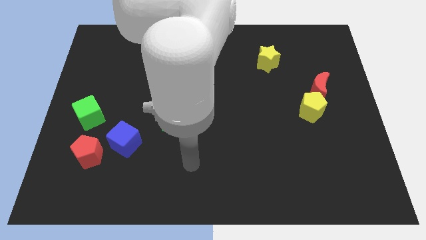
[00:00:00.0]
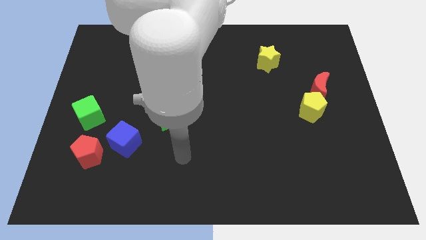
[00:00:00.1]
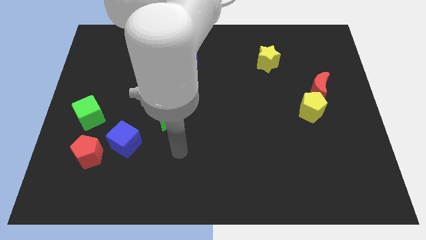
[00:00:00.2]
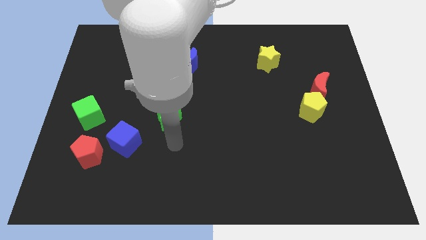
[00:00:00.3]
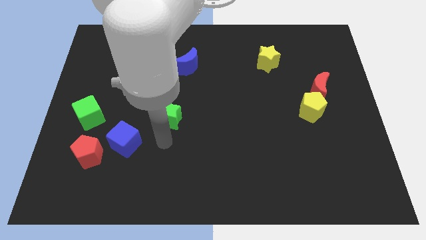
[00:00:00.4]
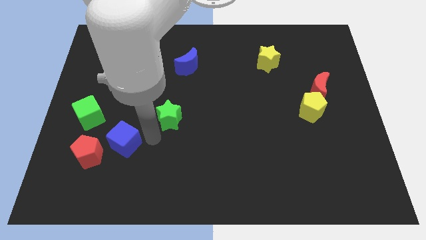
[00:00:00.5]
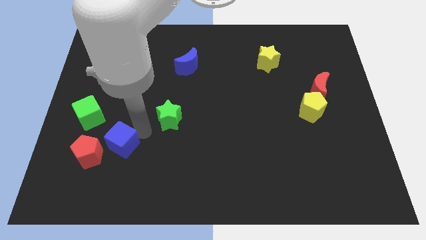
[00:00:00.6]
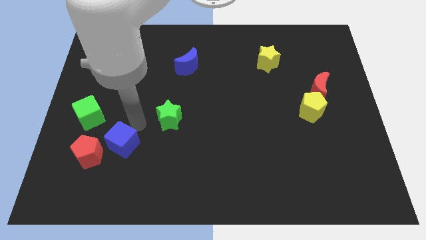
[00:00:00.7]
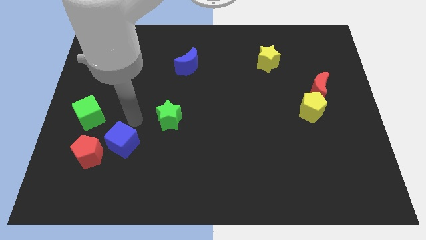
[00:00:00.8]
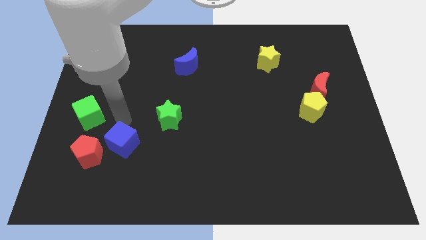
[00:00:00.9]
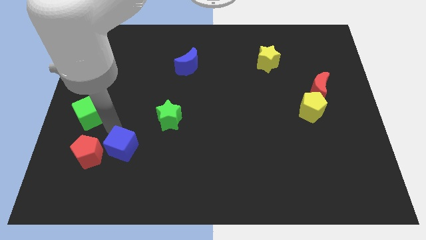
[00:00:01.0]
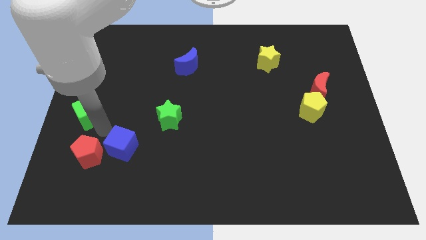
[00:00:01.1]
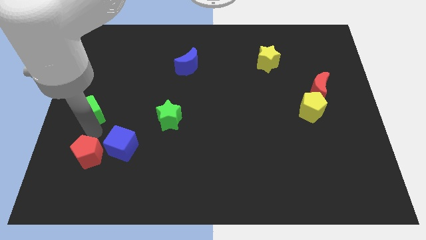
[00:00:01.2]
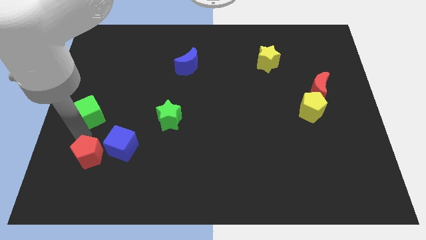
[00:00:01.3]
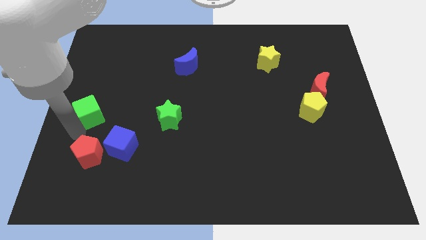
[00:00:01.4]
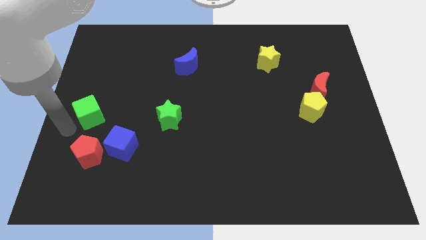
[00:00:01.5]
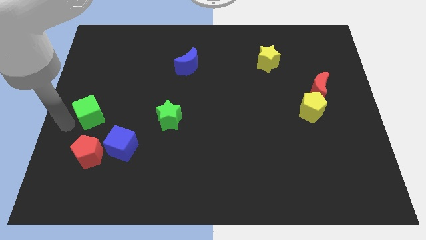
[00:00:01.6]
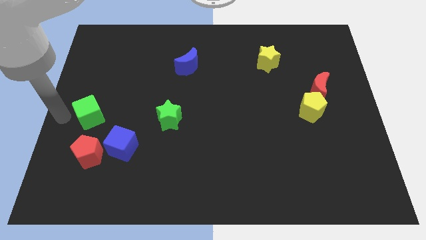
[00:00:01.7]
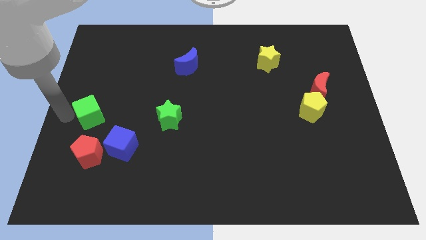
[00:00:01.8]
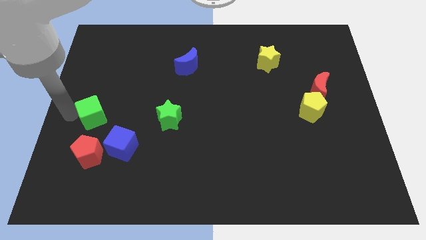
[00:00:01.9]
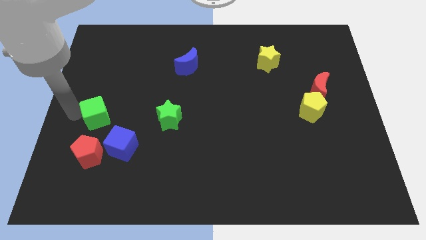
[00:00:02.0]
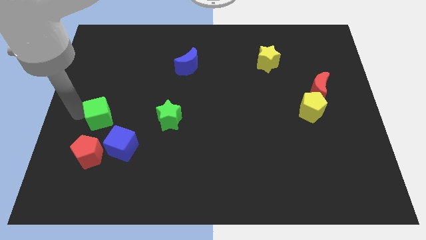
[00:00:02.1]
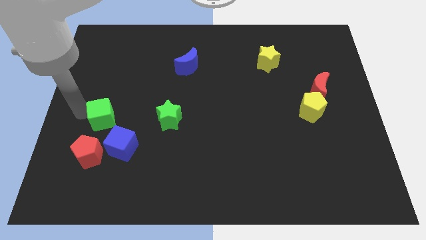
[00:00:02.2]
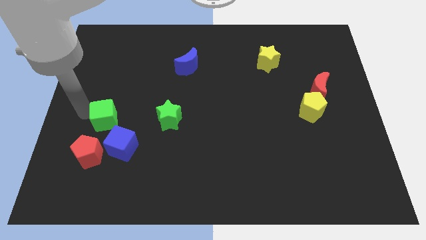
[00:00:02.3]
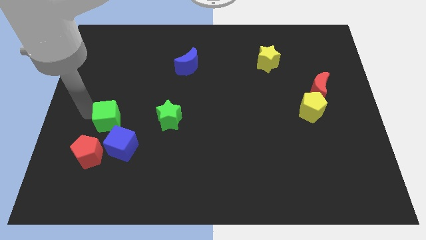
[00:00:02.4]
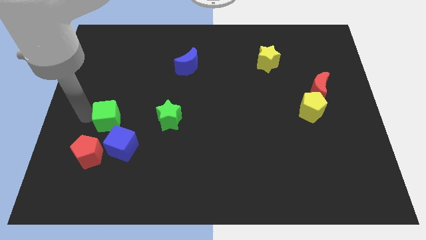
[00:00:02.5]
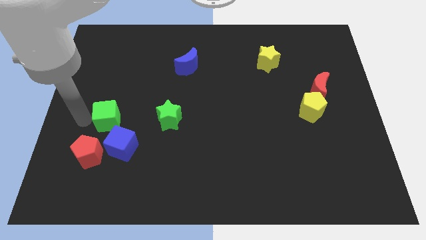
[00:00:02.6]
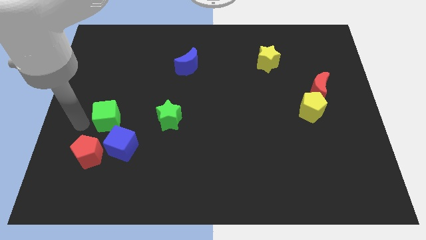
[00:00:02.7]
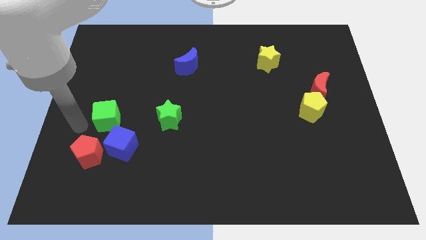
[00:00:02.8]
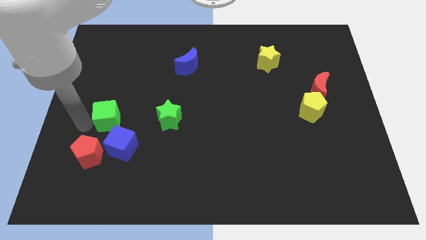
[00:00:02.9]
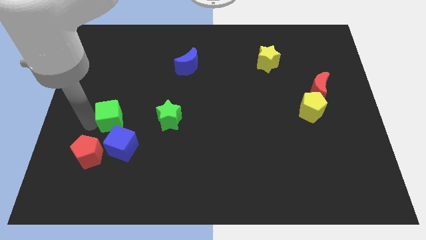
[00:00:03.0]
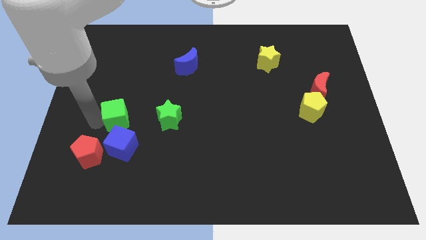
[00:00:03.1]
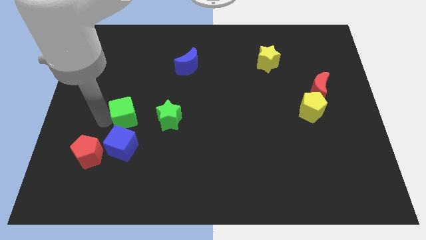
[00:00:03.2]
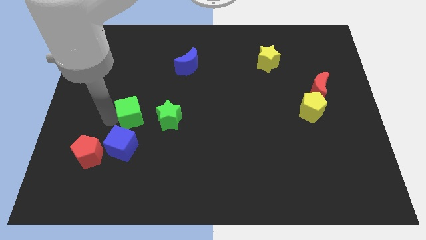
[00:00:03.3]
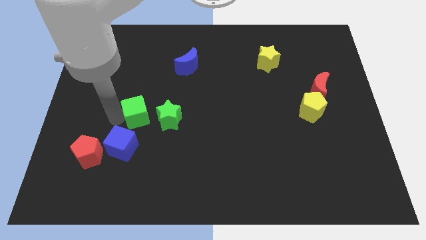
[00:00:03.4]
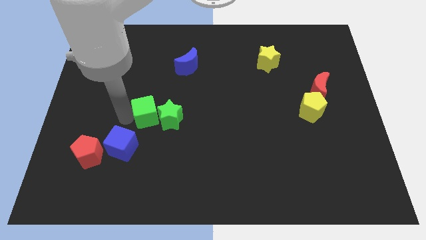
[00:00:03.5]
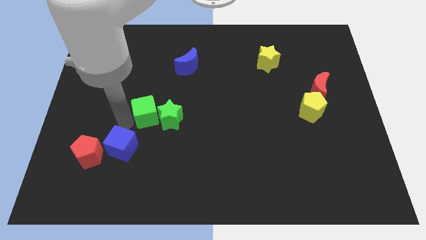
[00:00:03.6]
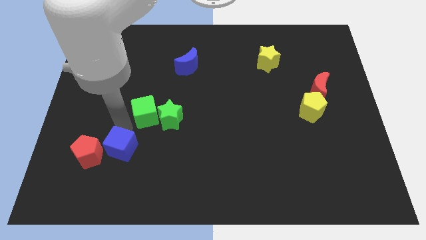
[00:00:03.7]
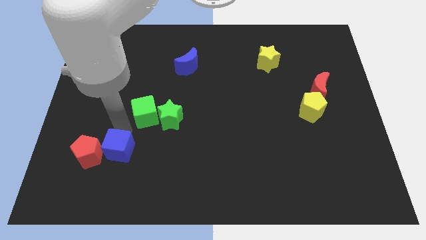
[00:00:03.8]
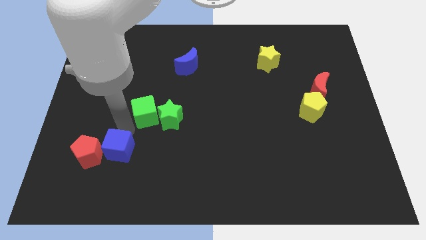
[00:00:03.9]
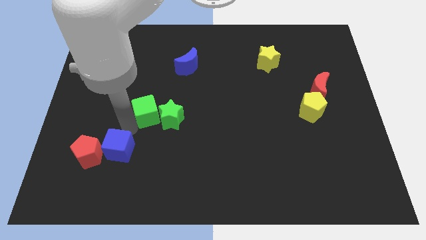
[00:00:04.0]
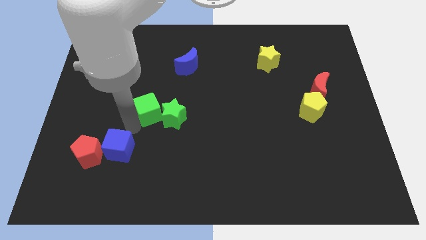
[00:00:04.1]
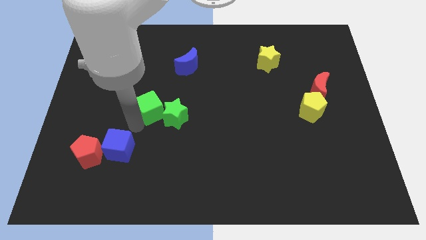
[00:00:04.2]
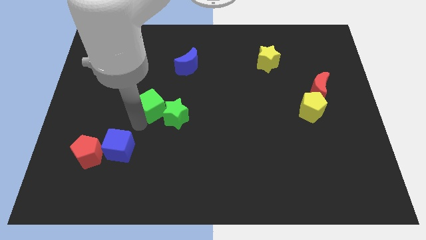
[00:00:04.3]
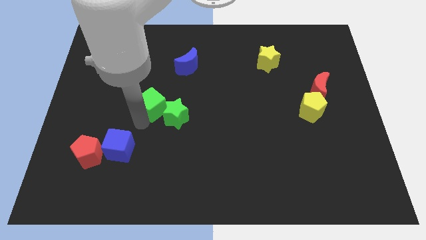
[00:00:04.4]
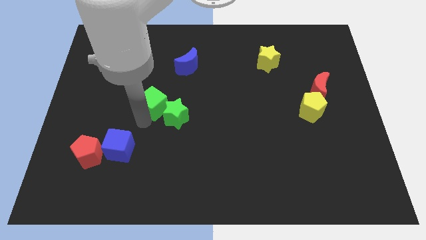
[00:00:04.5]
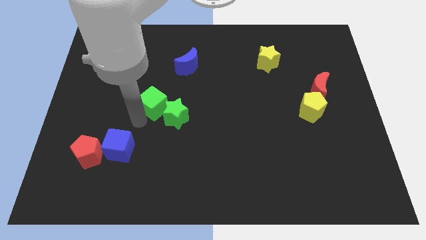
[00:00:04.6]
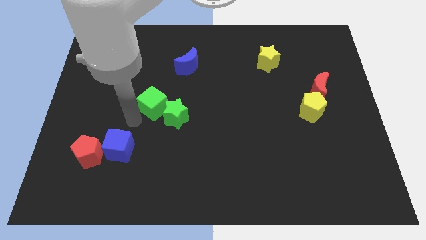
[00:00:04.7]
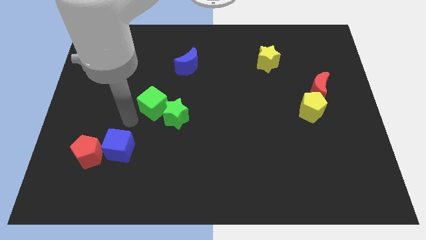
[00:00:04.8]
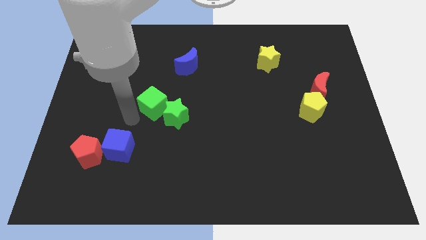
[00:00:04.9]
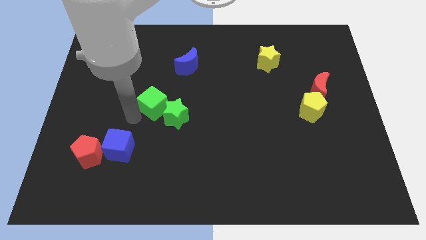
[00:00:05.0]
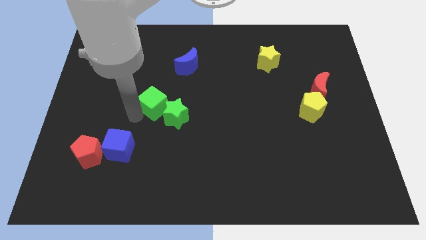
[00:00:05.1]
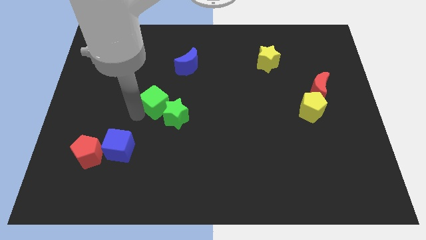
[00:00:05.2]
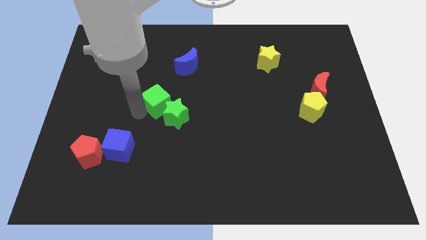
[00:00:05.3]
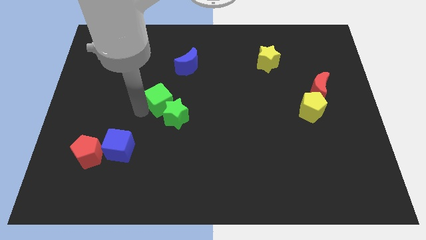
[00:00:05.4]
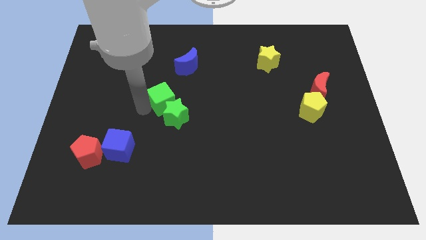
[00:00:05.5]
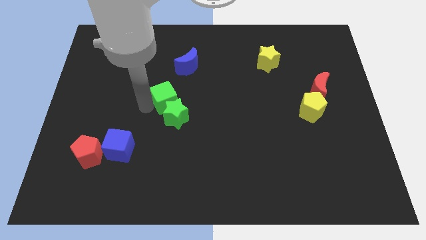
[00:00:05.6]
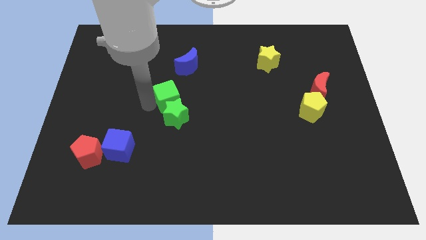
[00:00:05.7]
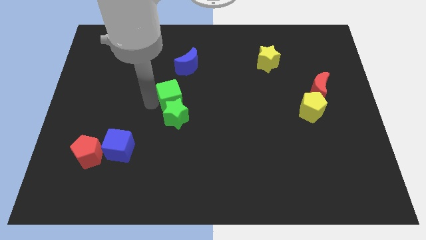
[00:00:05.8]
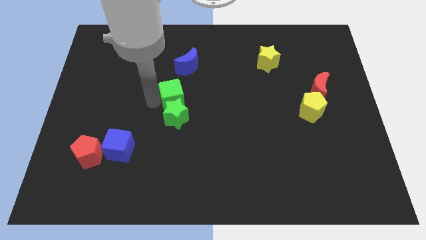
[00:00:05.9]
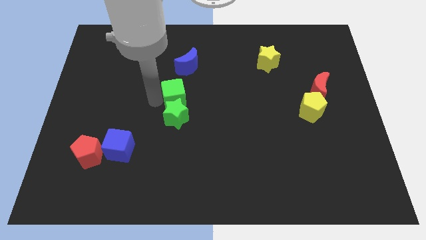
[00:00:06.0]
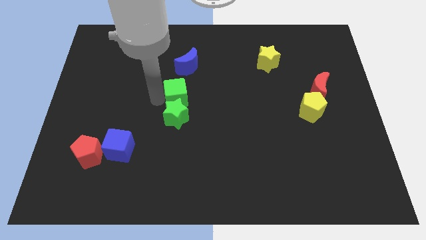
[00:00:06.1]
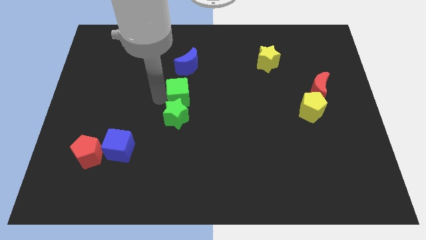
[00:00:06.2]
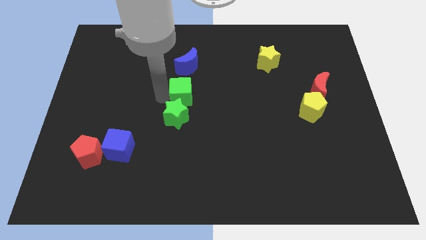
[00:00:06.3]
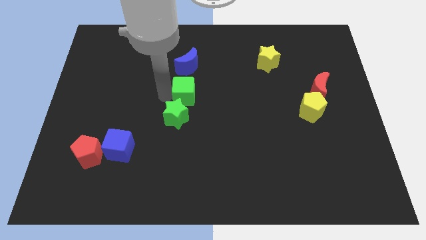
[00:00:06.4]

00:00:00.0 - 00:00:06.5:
move the green cube right

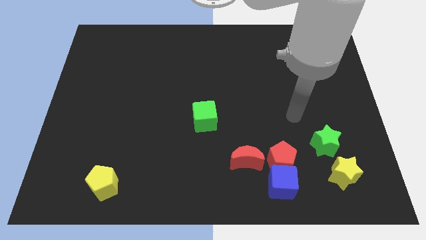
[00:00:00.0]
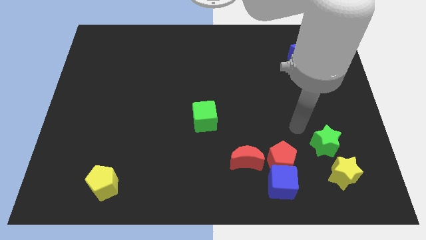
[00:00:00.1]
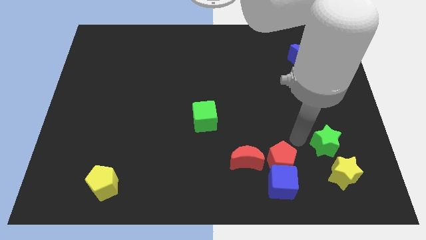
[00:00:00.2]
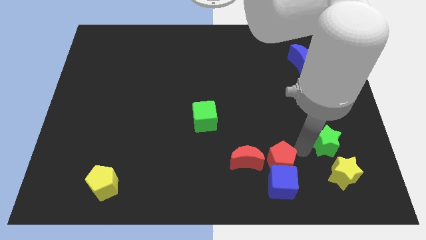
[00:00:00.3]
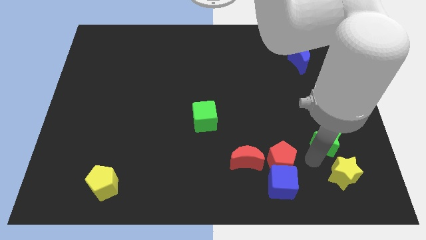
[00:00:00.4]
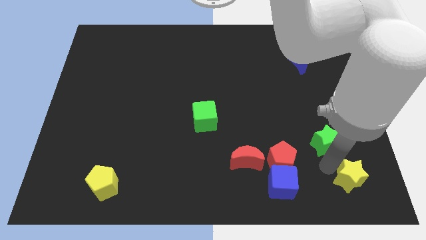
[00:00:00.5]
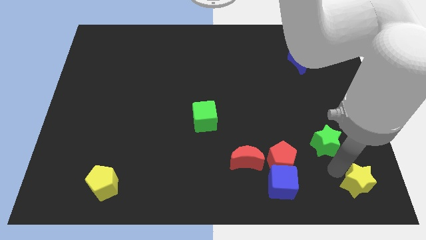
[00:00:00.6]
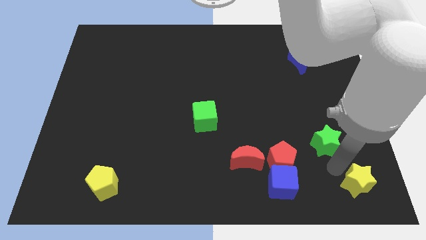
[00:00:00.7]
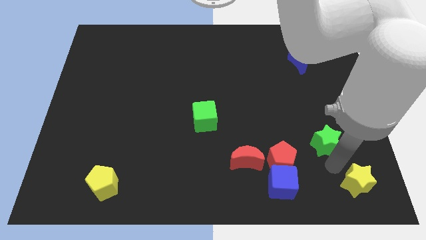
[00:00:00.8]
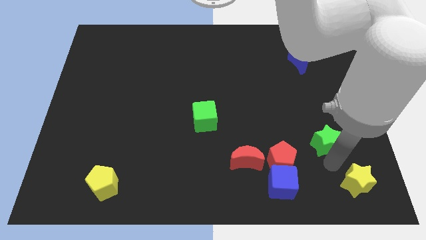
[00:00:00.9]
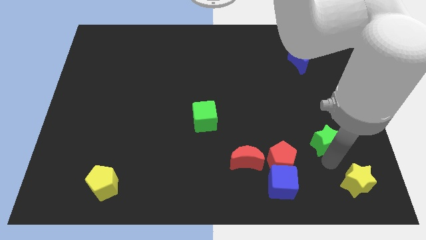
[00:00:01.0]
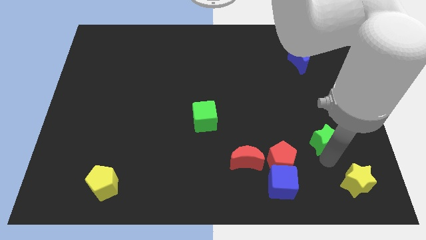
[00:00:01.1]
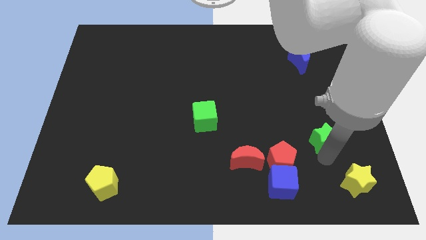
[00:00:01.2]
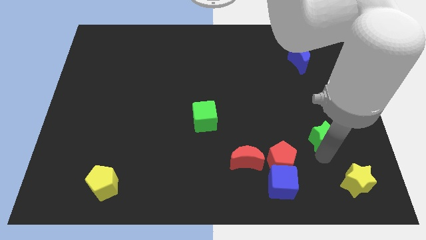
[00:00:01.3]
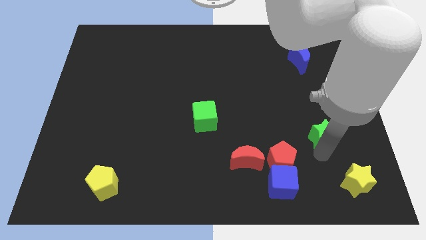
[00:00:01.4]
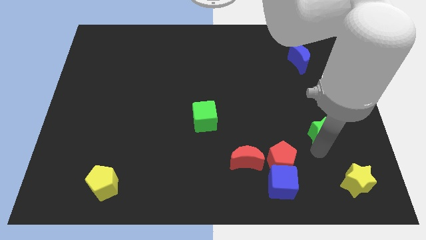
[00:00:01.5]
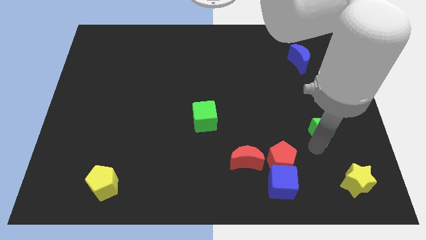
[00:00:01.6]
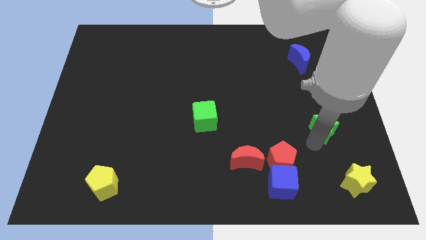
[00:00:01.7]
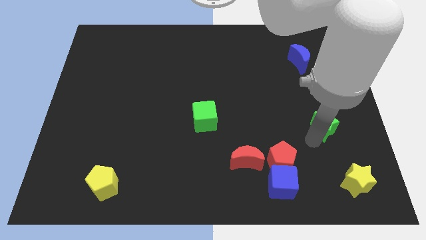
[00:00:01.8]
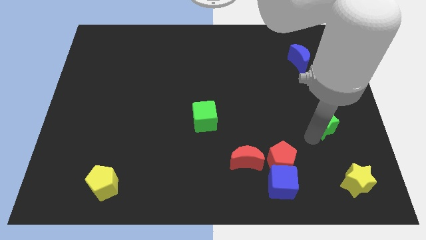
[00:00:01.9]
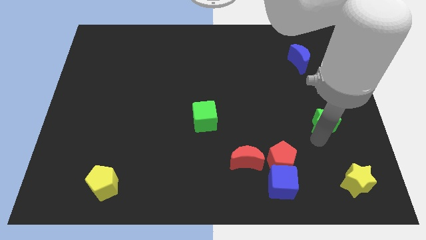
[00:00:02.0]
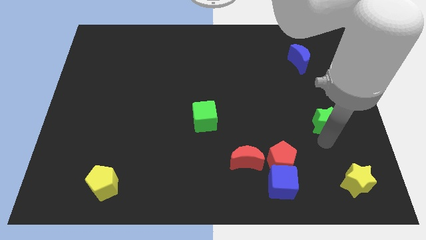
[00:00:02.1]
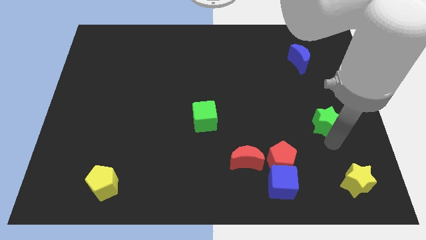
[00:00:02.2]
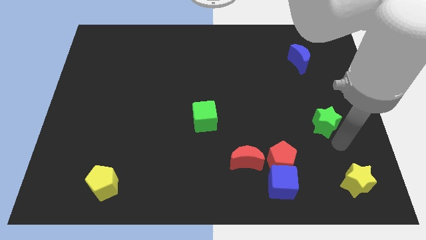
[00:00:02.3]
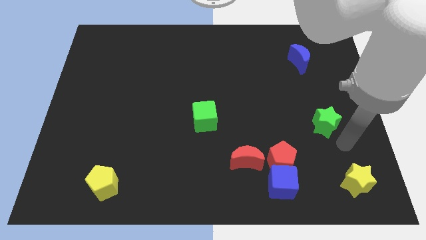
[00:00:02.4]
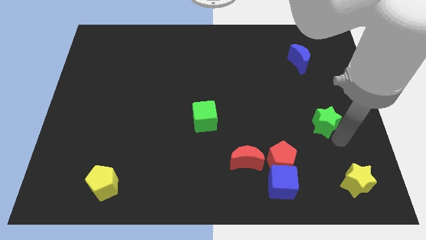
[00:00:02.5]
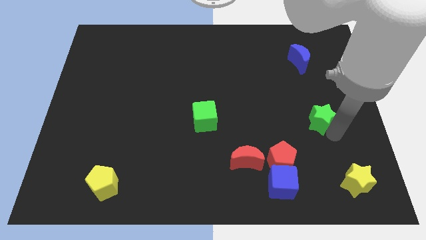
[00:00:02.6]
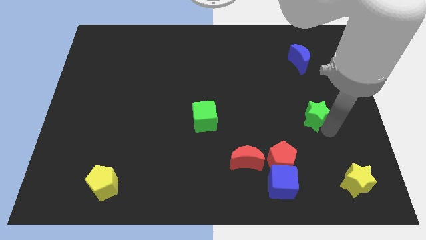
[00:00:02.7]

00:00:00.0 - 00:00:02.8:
slide the green star somewhat up
